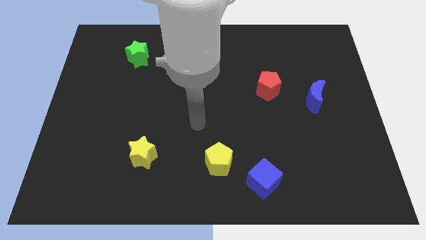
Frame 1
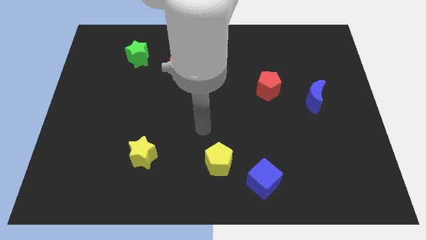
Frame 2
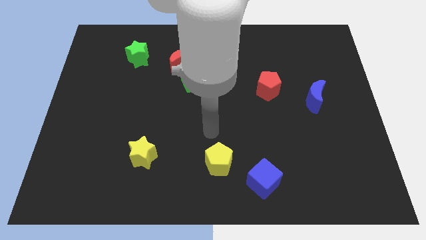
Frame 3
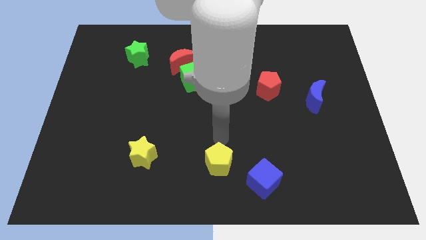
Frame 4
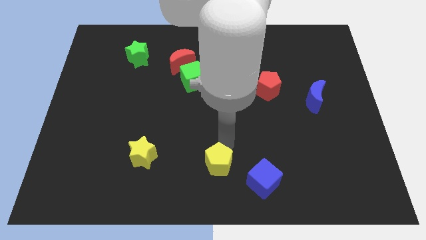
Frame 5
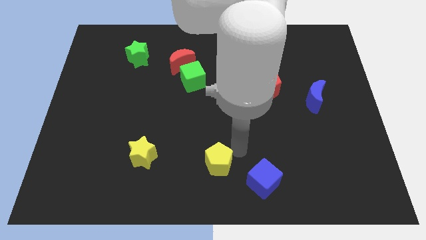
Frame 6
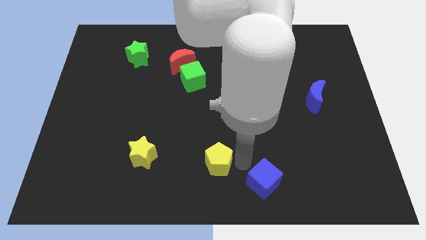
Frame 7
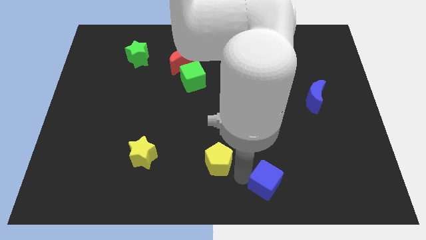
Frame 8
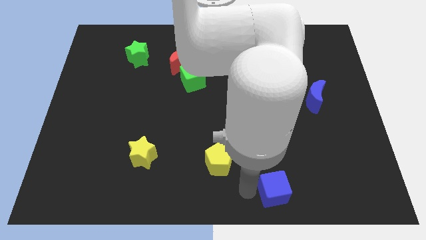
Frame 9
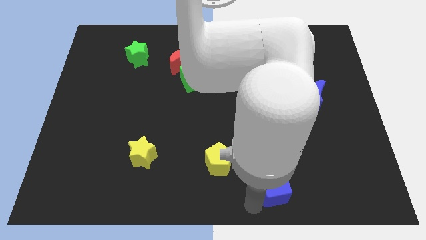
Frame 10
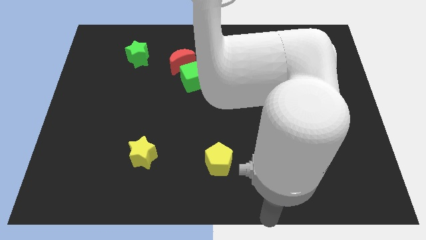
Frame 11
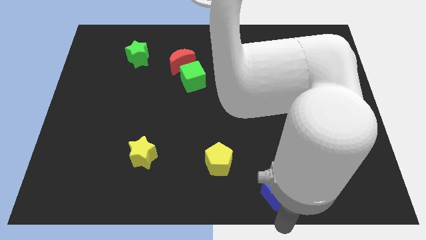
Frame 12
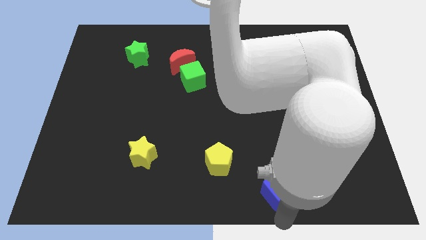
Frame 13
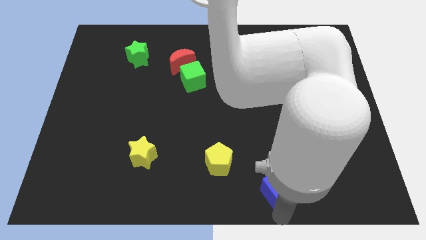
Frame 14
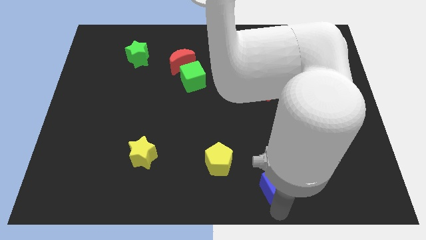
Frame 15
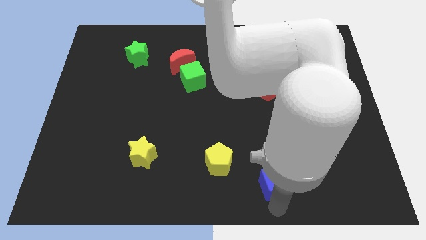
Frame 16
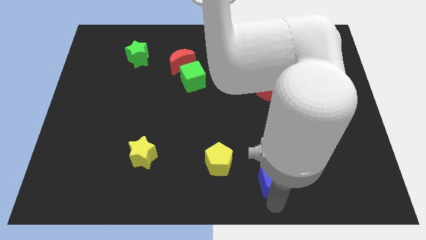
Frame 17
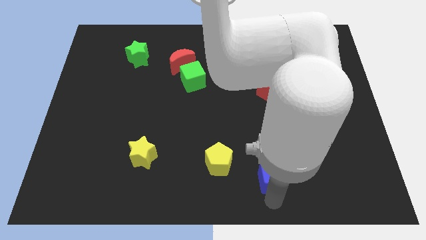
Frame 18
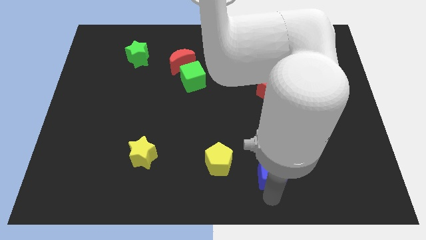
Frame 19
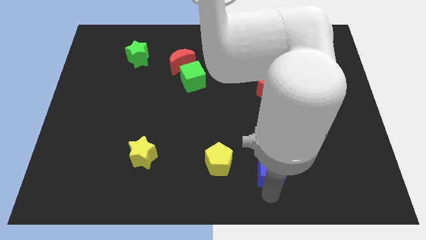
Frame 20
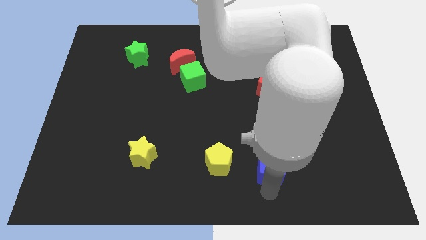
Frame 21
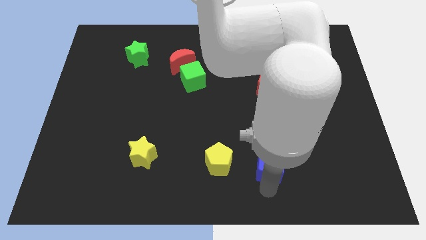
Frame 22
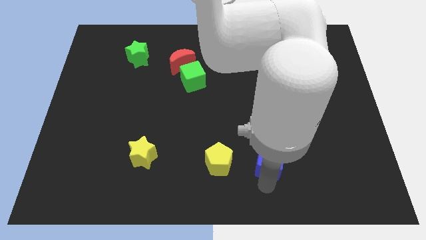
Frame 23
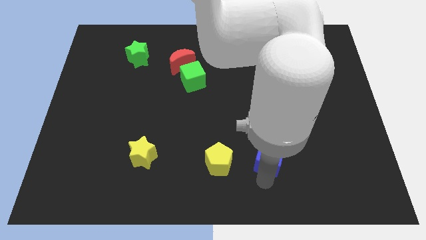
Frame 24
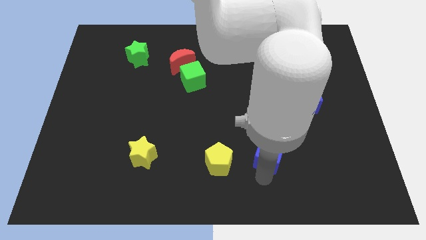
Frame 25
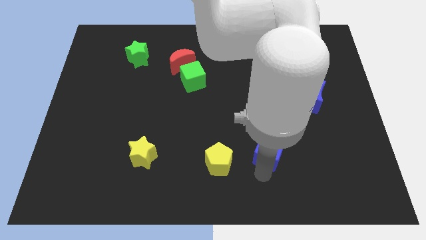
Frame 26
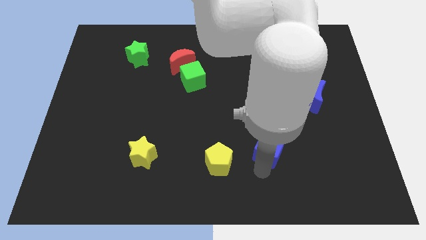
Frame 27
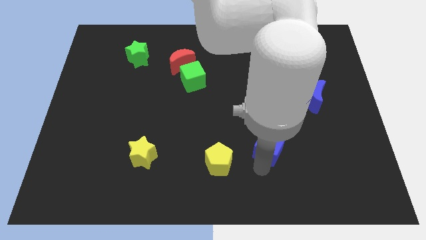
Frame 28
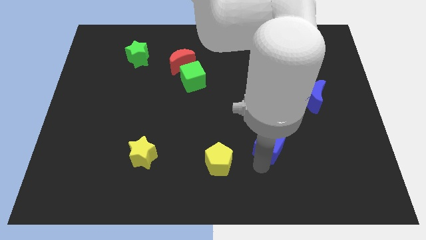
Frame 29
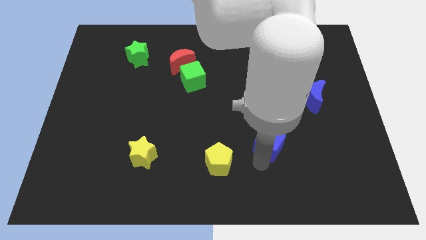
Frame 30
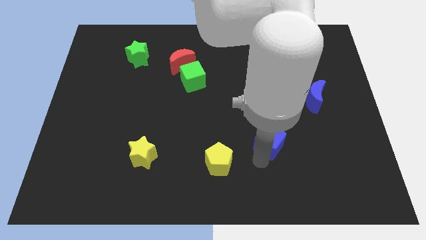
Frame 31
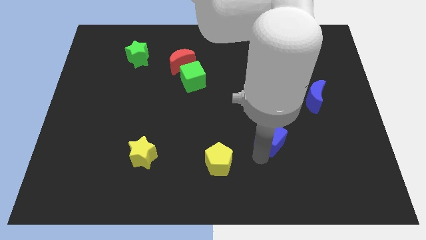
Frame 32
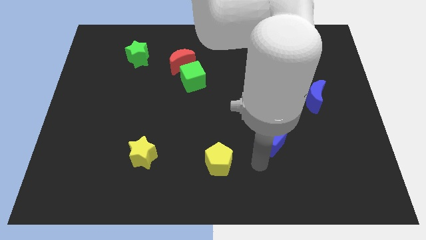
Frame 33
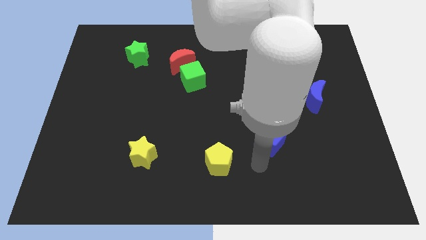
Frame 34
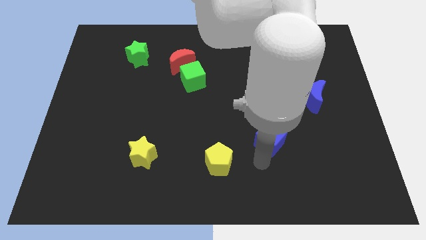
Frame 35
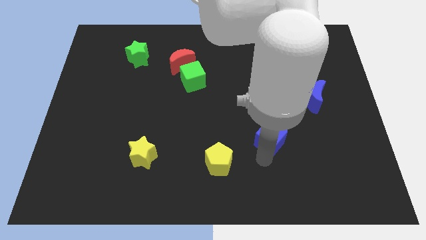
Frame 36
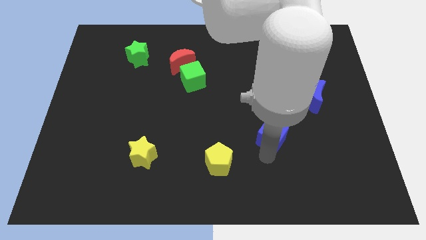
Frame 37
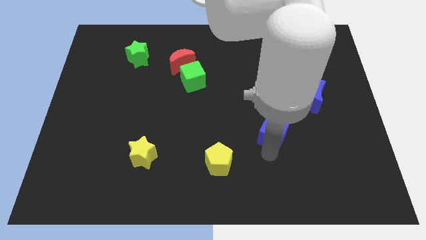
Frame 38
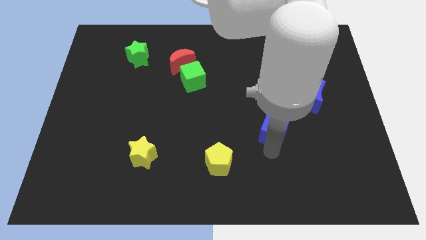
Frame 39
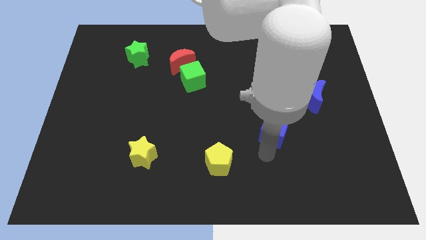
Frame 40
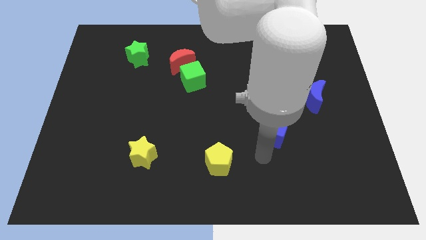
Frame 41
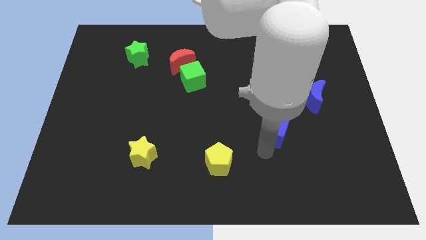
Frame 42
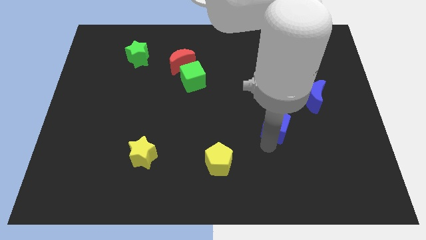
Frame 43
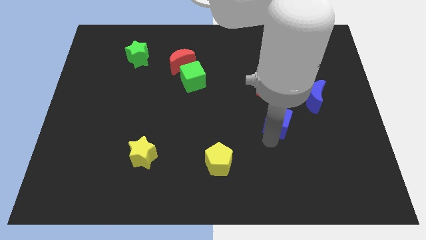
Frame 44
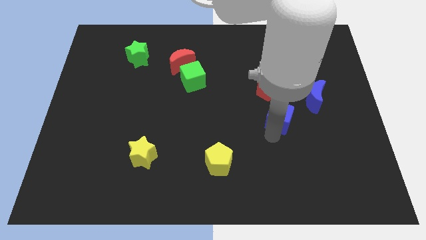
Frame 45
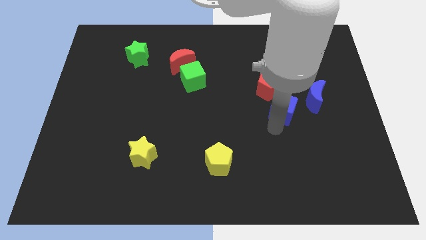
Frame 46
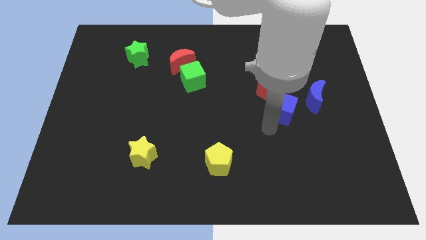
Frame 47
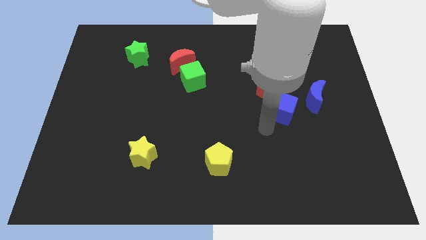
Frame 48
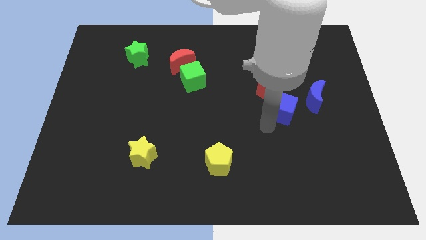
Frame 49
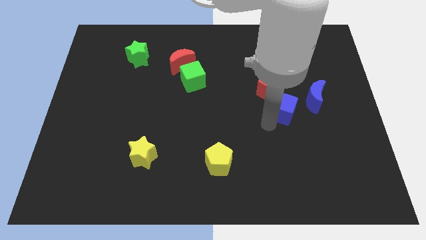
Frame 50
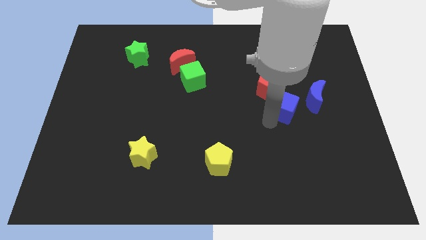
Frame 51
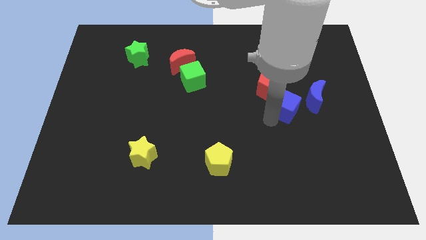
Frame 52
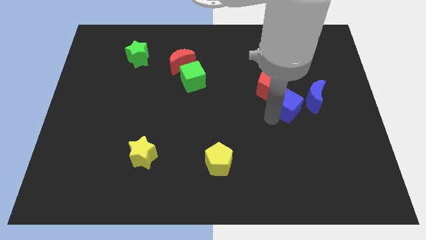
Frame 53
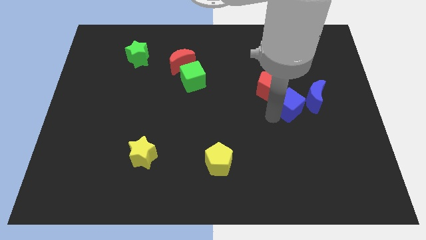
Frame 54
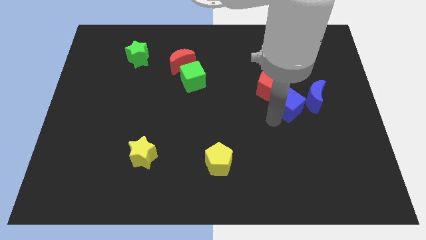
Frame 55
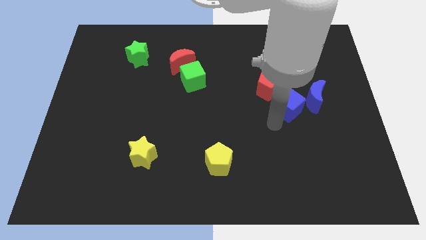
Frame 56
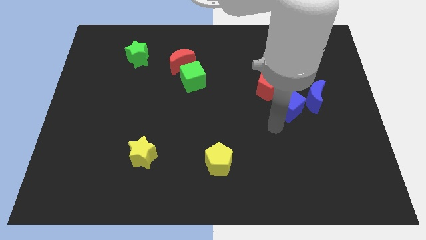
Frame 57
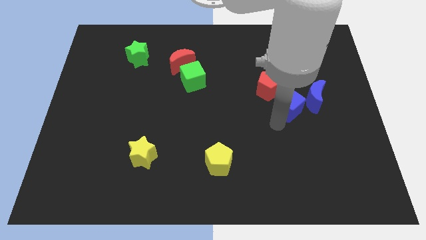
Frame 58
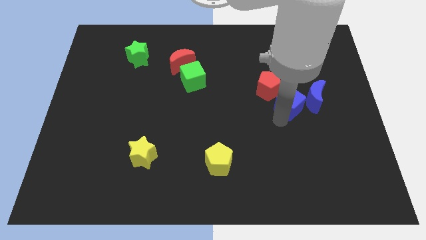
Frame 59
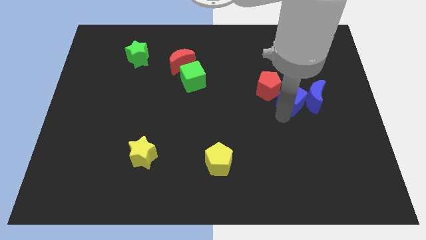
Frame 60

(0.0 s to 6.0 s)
move the blue cube to the right of the red pentagon

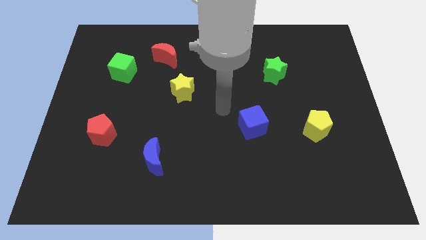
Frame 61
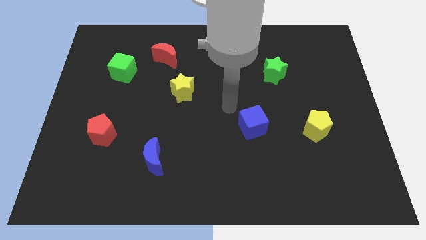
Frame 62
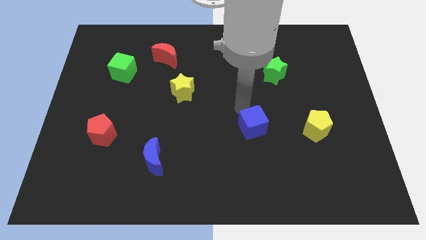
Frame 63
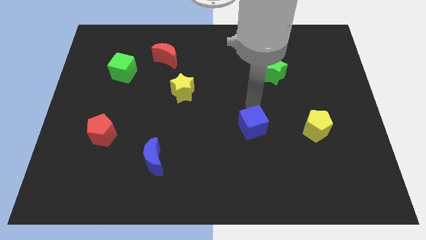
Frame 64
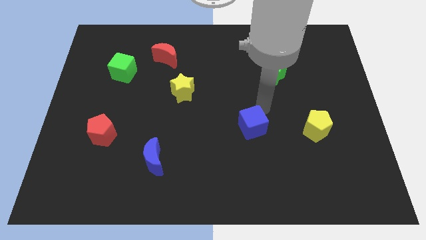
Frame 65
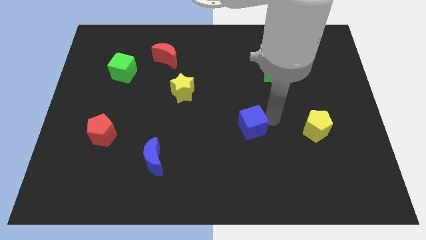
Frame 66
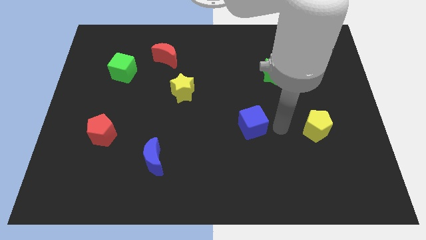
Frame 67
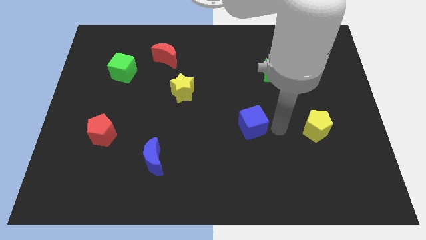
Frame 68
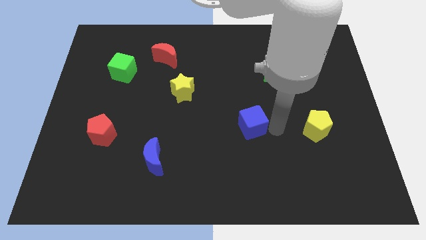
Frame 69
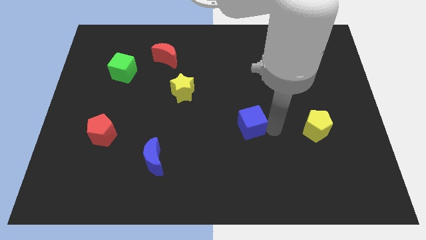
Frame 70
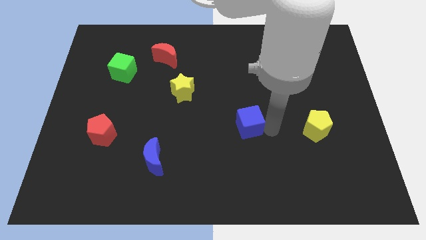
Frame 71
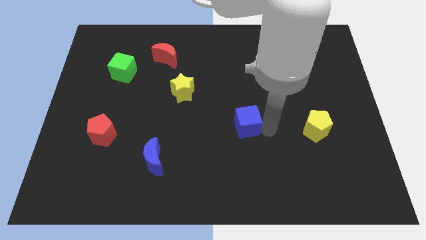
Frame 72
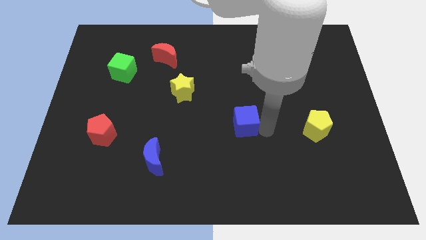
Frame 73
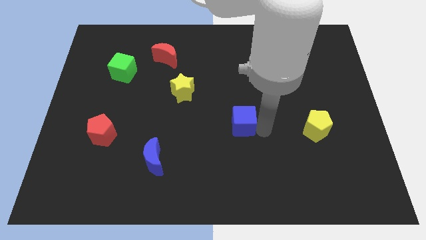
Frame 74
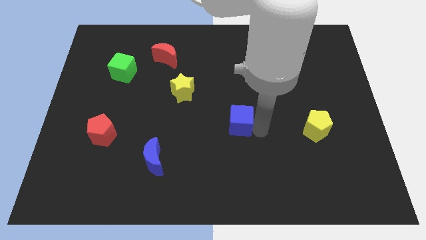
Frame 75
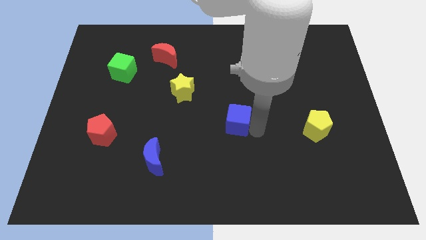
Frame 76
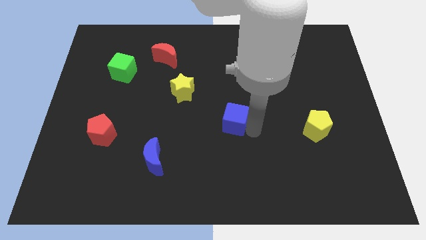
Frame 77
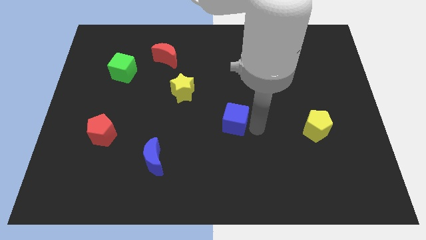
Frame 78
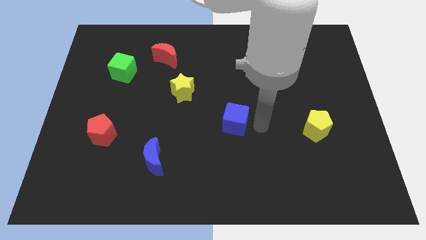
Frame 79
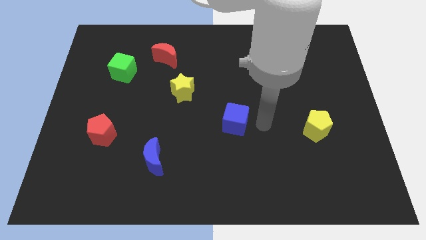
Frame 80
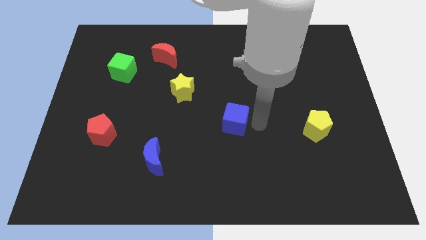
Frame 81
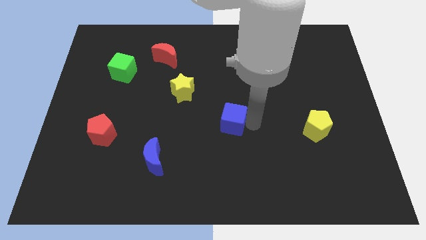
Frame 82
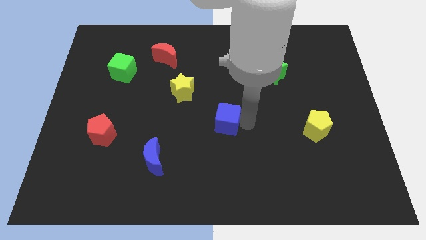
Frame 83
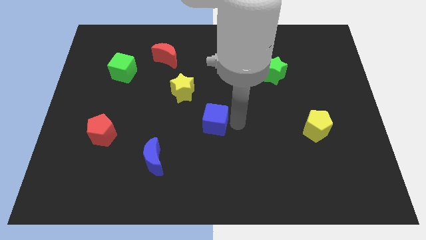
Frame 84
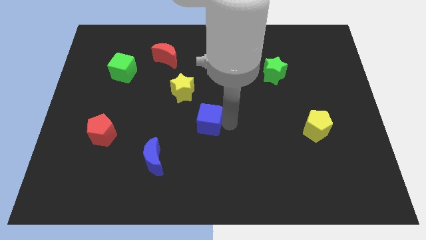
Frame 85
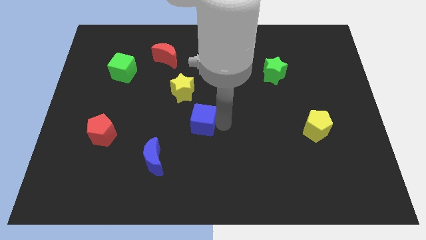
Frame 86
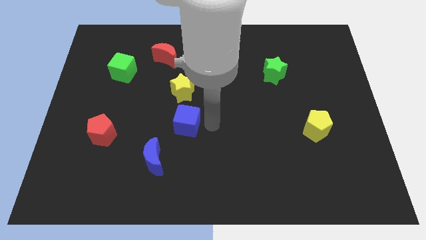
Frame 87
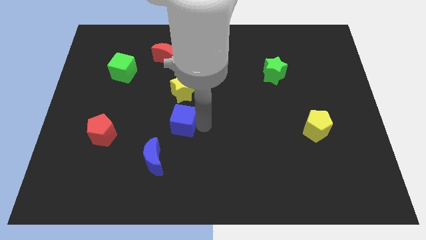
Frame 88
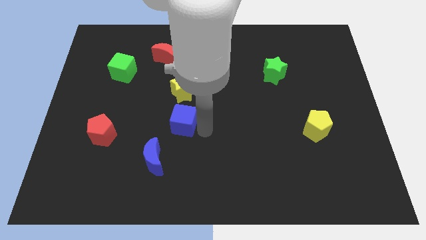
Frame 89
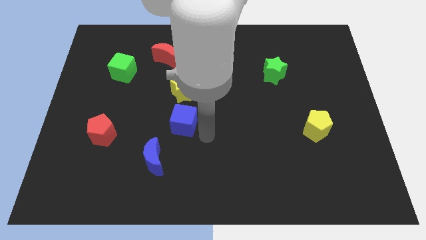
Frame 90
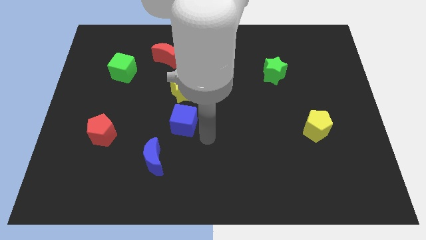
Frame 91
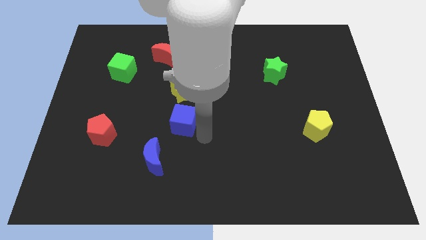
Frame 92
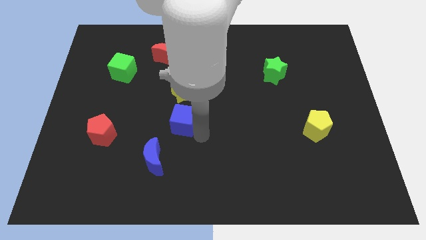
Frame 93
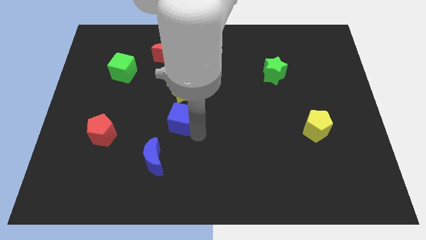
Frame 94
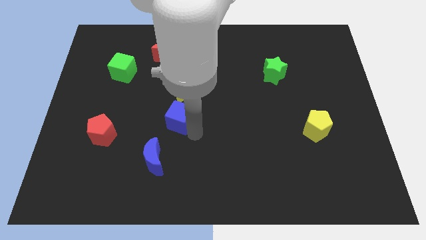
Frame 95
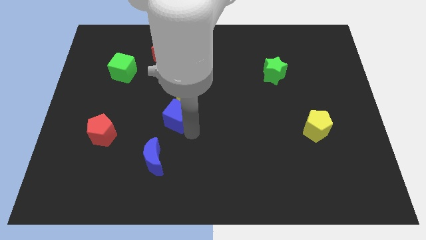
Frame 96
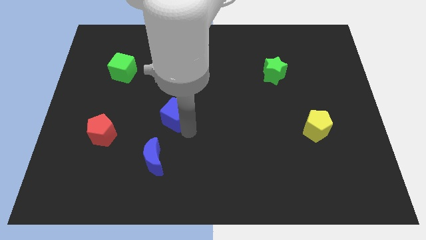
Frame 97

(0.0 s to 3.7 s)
move the blue cube diagonally down and to the left of the yellow star
